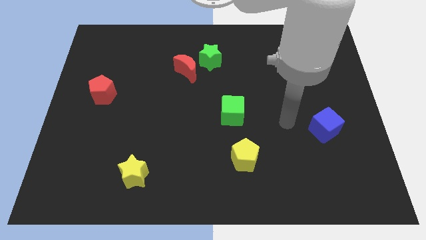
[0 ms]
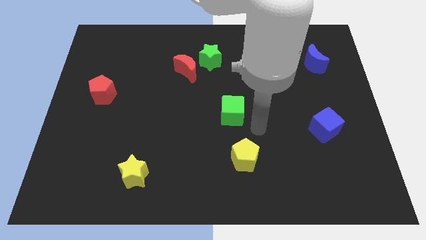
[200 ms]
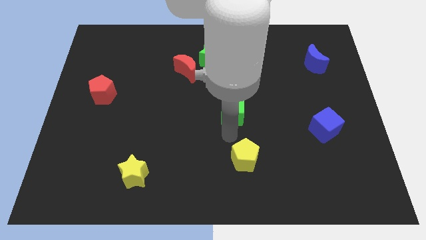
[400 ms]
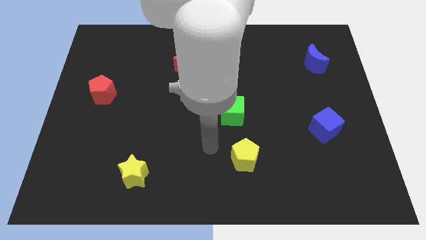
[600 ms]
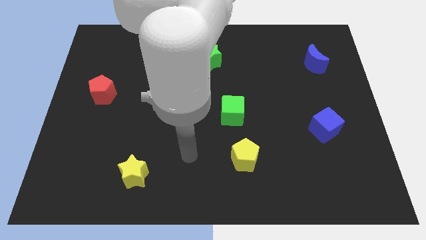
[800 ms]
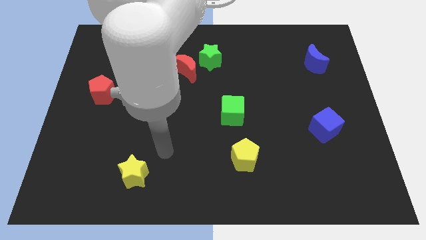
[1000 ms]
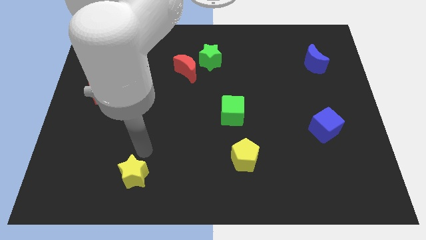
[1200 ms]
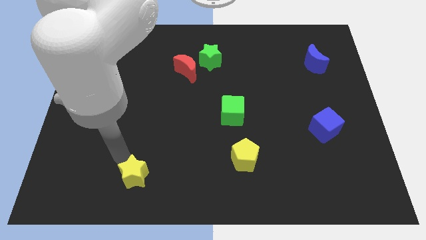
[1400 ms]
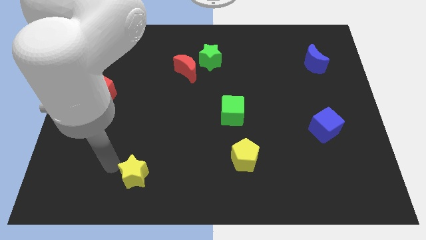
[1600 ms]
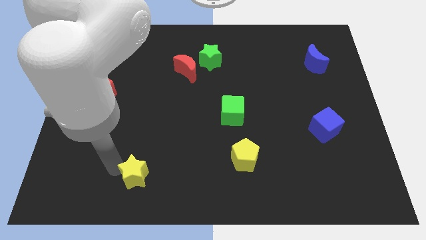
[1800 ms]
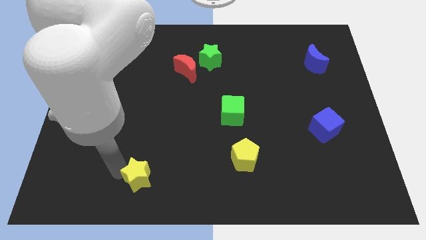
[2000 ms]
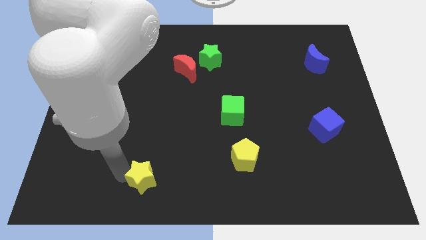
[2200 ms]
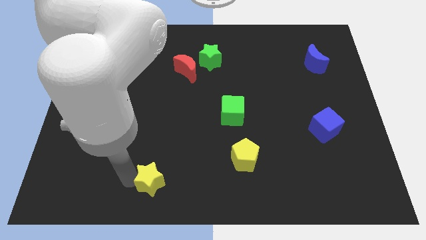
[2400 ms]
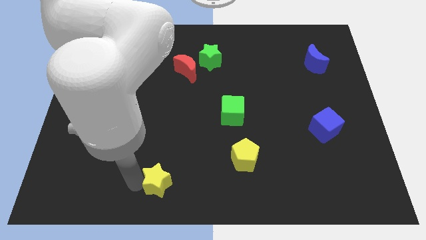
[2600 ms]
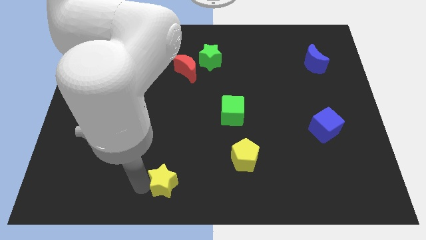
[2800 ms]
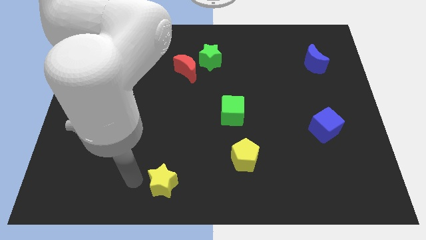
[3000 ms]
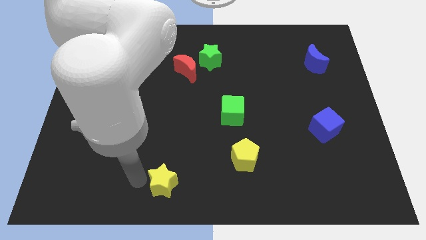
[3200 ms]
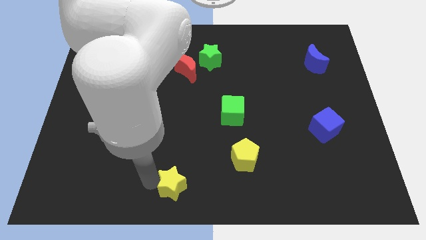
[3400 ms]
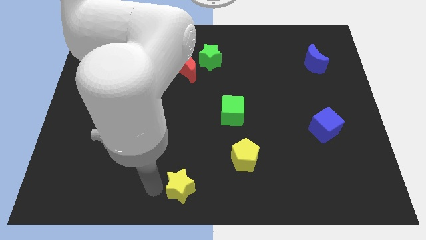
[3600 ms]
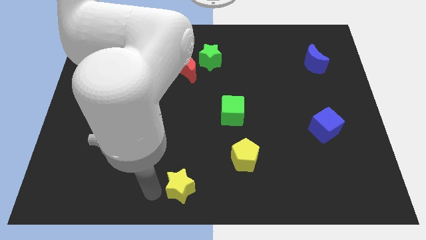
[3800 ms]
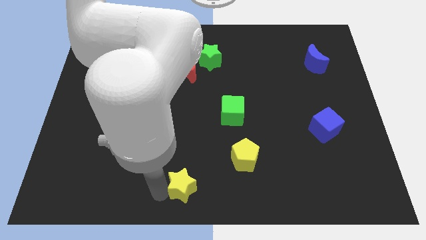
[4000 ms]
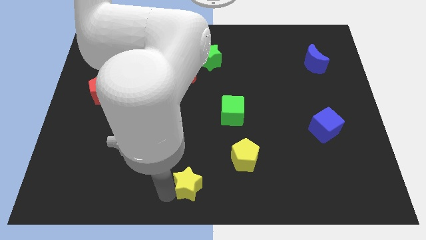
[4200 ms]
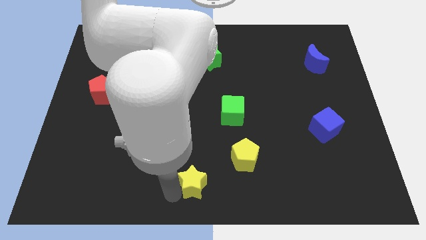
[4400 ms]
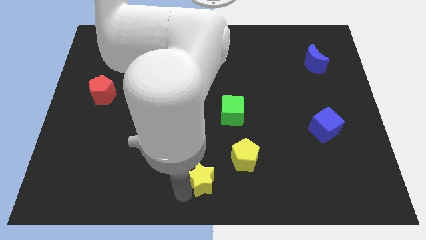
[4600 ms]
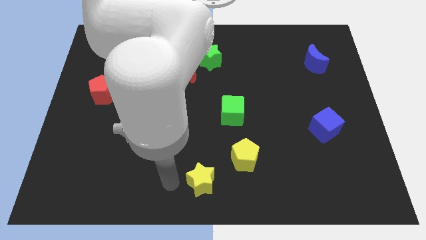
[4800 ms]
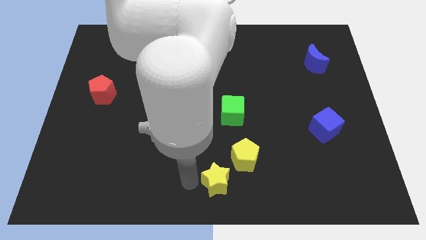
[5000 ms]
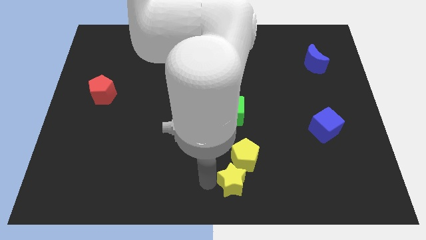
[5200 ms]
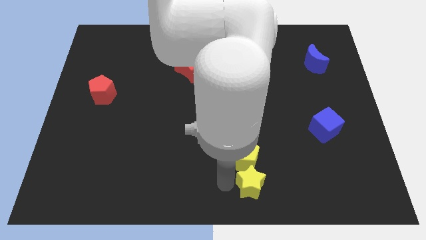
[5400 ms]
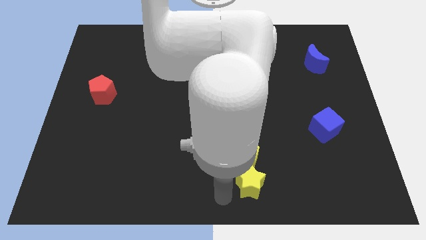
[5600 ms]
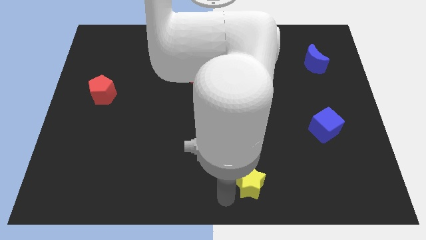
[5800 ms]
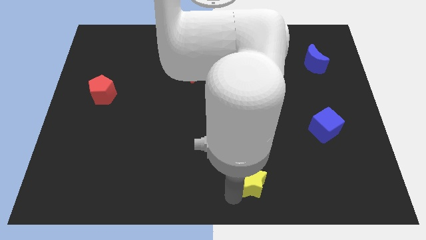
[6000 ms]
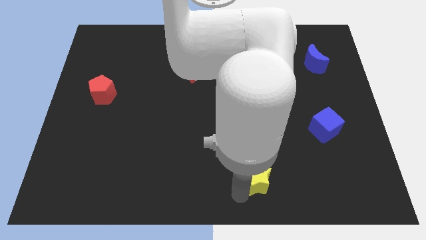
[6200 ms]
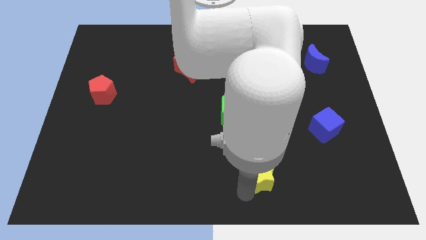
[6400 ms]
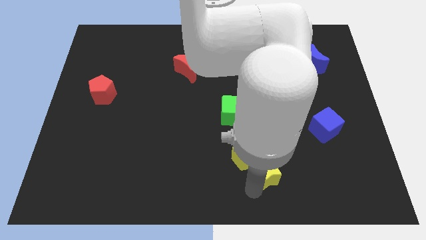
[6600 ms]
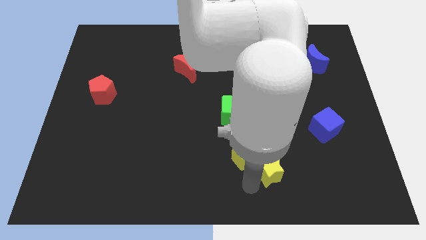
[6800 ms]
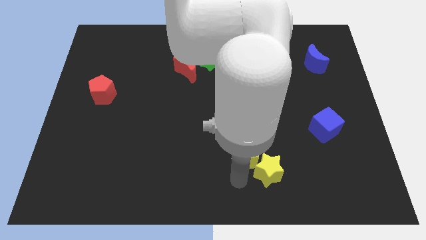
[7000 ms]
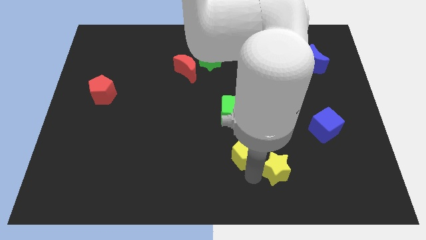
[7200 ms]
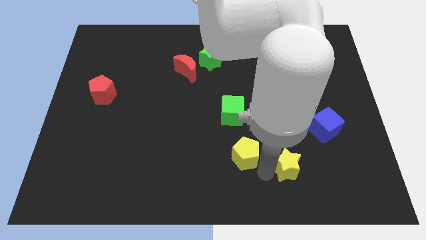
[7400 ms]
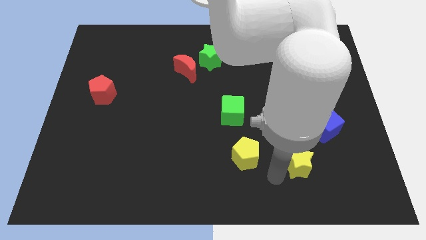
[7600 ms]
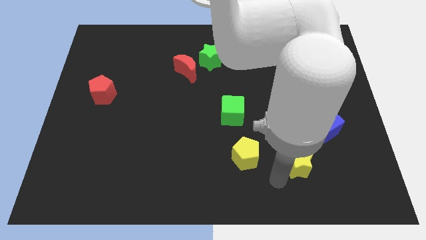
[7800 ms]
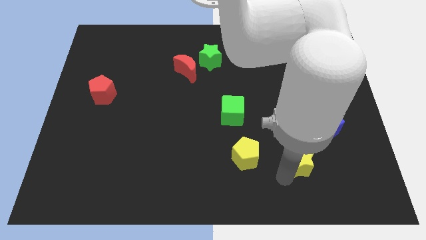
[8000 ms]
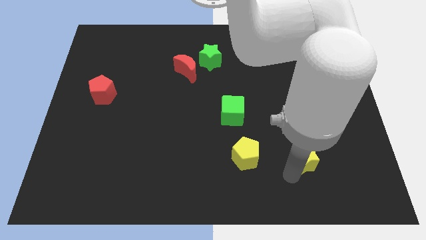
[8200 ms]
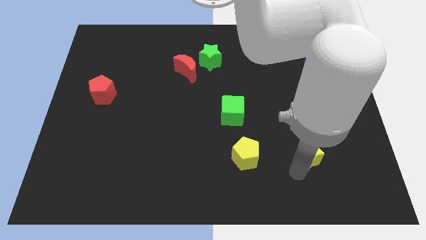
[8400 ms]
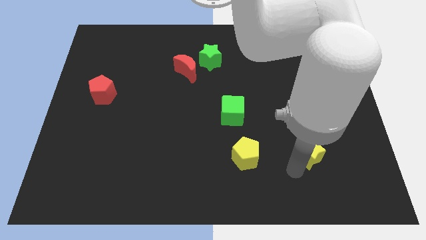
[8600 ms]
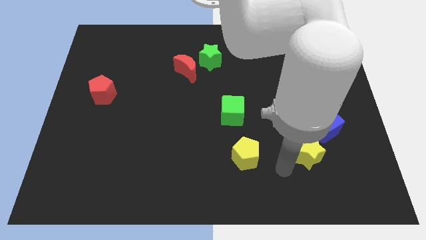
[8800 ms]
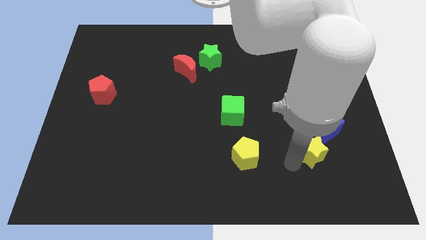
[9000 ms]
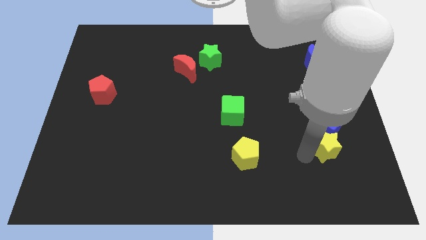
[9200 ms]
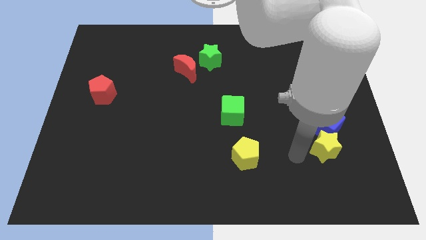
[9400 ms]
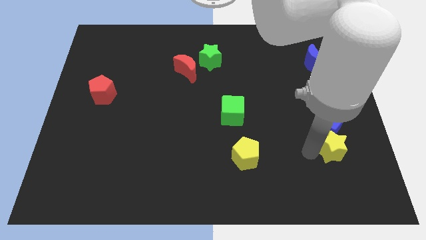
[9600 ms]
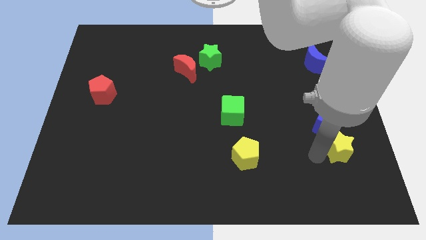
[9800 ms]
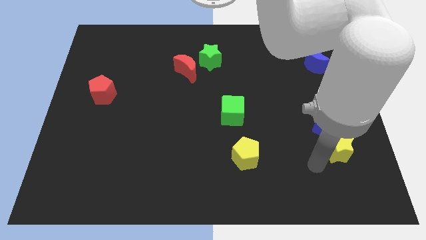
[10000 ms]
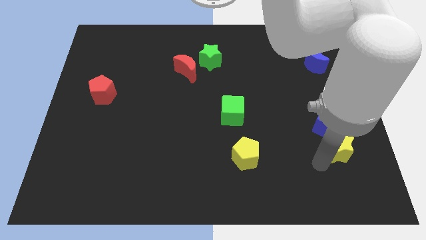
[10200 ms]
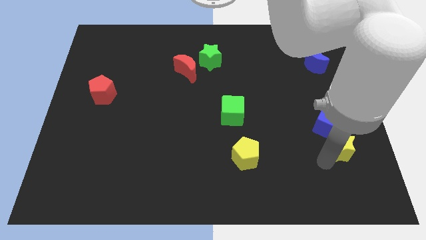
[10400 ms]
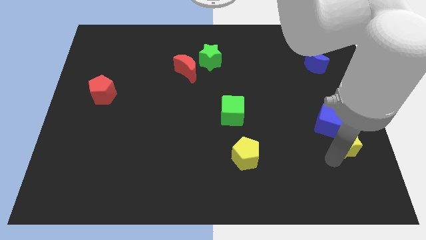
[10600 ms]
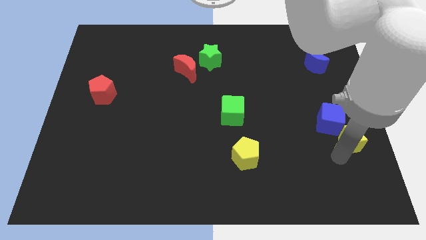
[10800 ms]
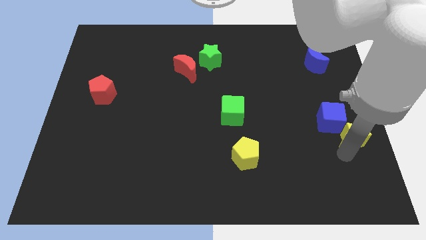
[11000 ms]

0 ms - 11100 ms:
push the yellow star to the center right

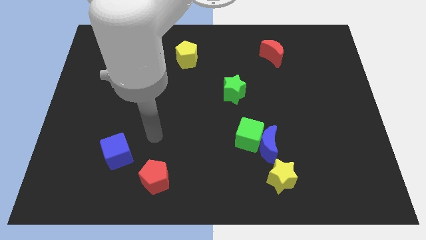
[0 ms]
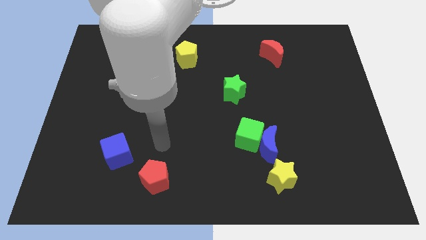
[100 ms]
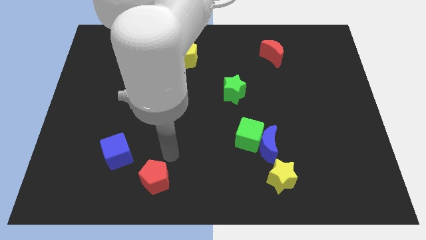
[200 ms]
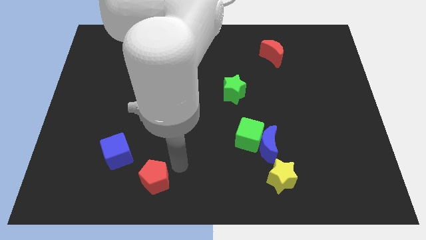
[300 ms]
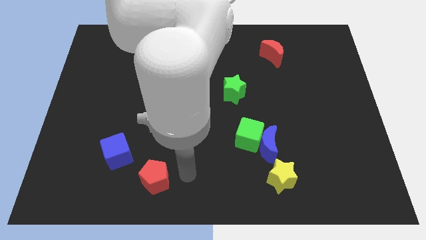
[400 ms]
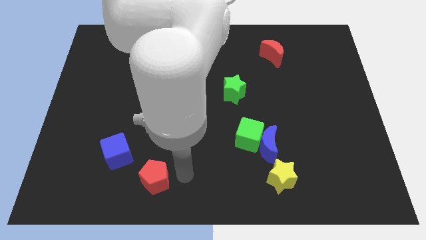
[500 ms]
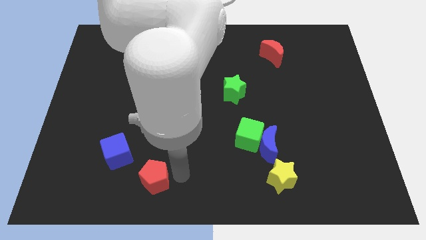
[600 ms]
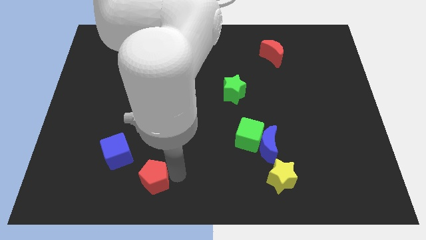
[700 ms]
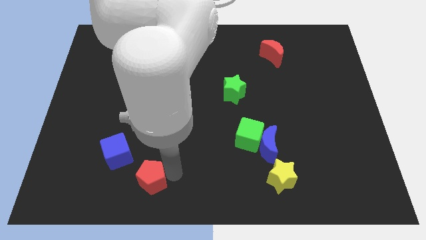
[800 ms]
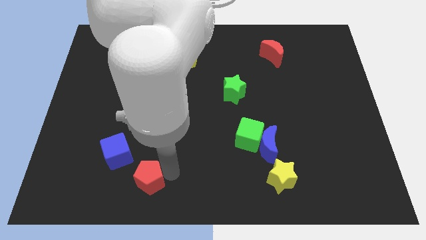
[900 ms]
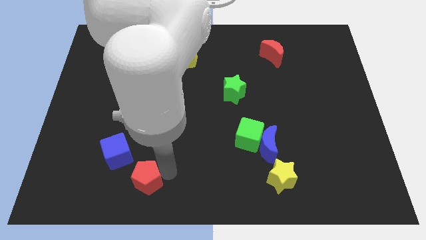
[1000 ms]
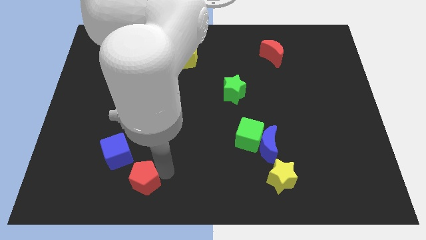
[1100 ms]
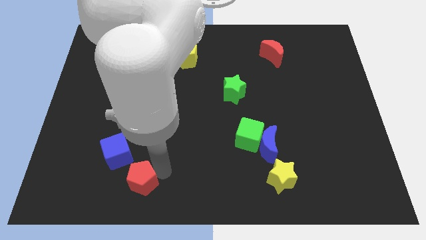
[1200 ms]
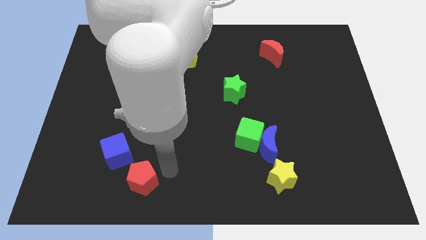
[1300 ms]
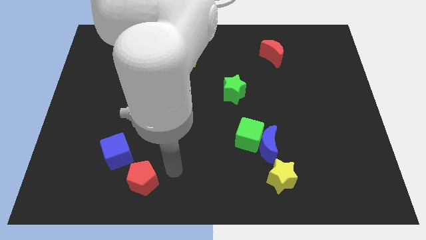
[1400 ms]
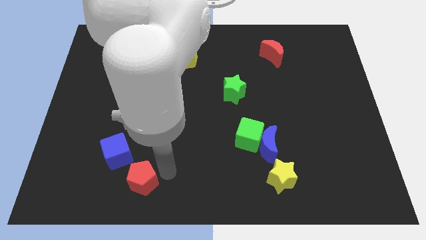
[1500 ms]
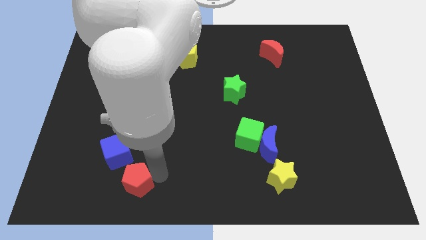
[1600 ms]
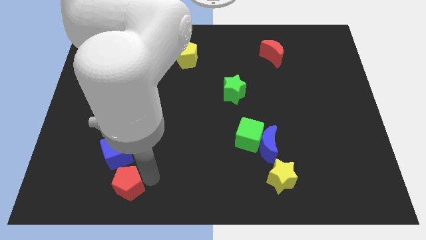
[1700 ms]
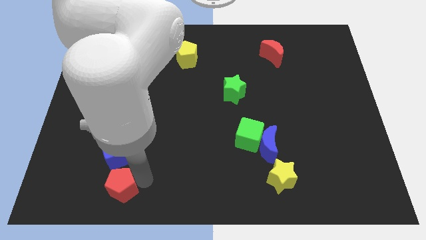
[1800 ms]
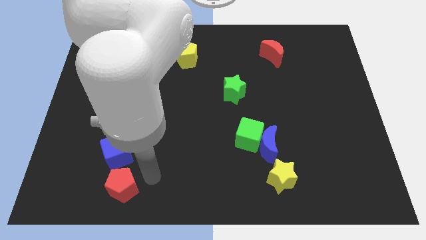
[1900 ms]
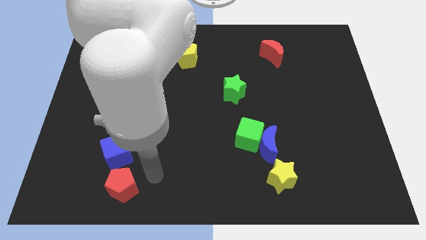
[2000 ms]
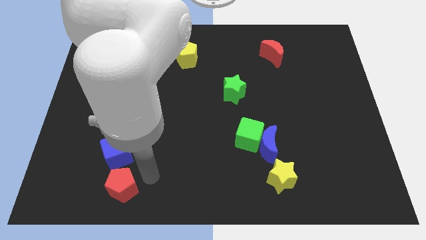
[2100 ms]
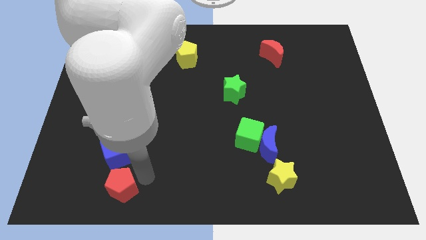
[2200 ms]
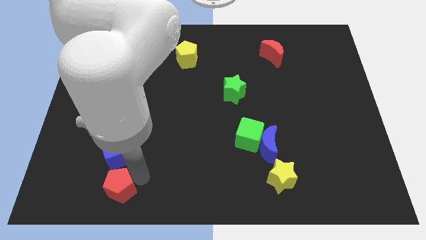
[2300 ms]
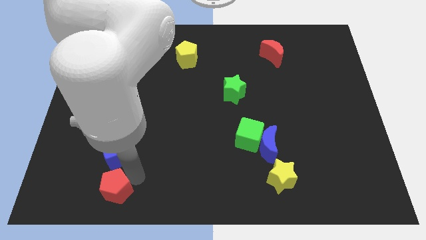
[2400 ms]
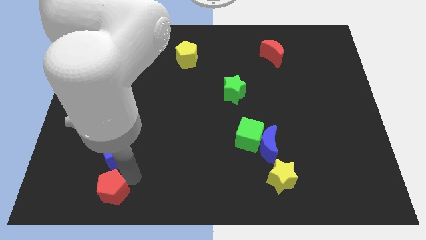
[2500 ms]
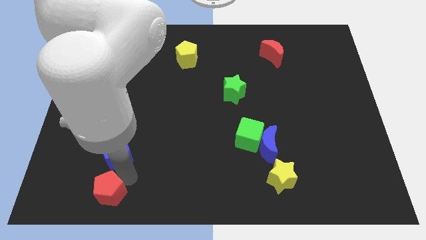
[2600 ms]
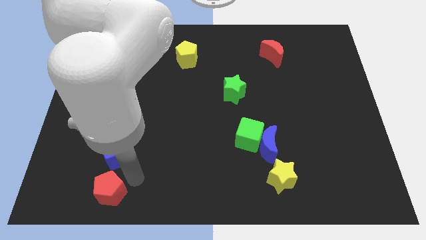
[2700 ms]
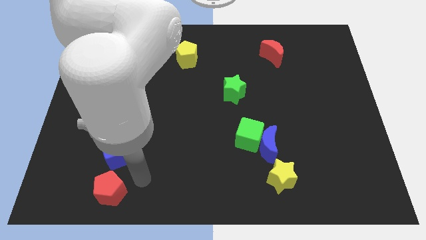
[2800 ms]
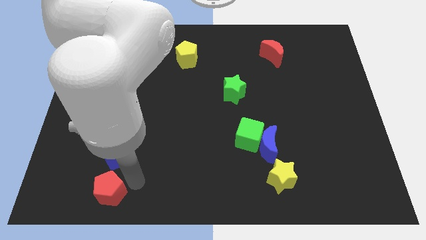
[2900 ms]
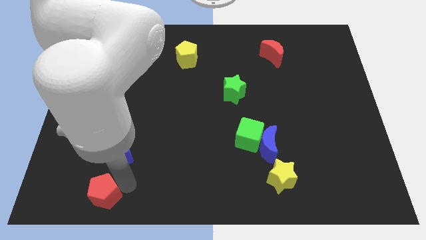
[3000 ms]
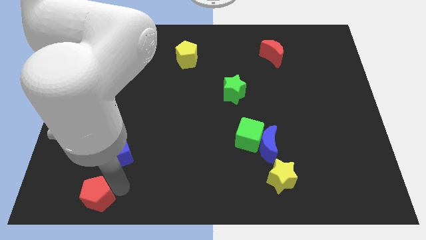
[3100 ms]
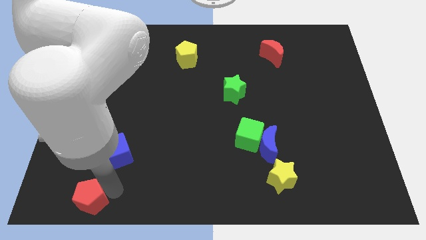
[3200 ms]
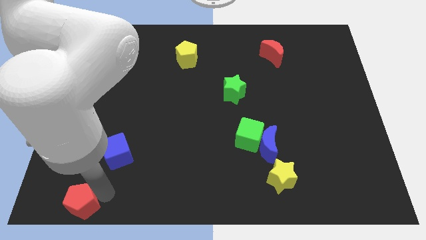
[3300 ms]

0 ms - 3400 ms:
slide the red pentagon to the bottom left
